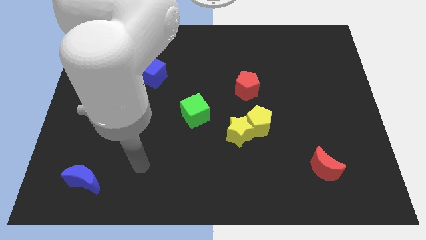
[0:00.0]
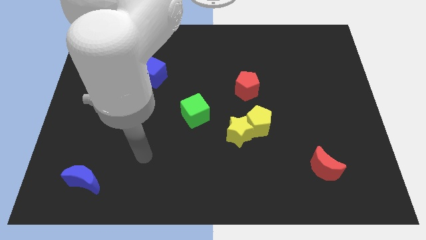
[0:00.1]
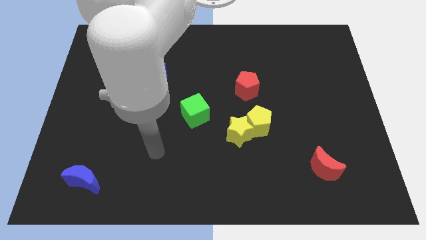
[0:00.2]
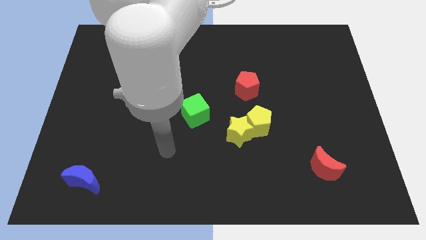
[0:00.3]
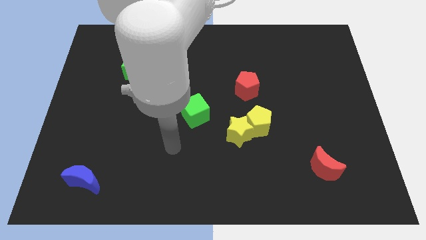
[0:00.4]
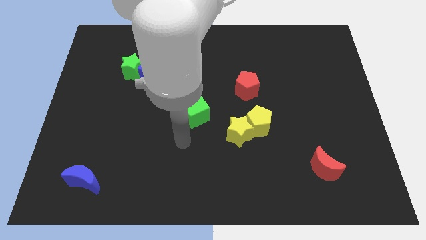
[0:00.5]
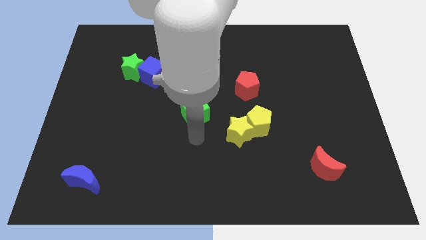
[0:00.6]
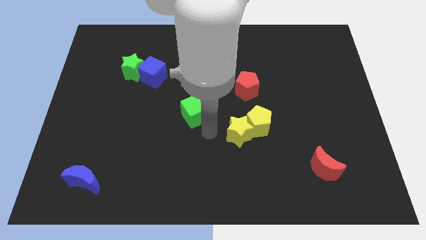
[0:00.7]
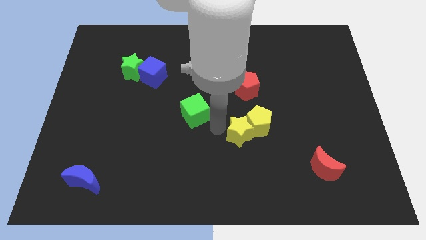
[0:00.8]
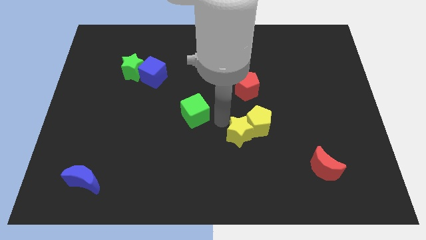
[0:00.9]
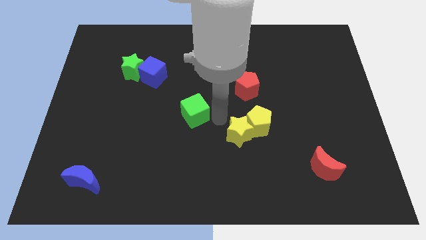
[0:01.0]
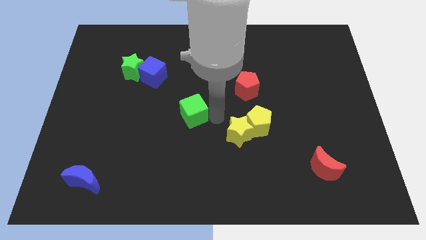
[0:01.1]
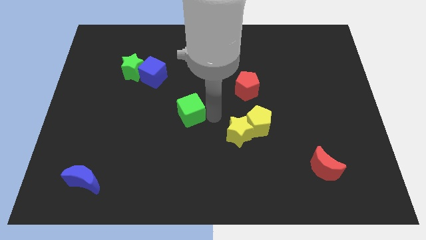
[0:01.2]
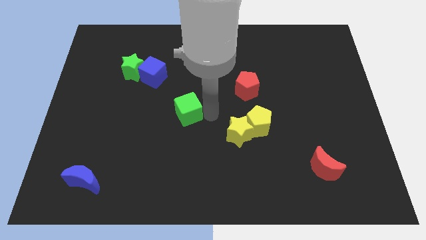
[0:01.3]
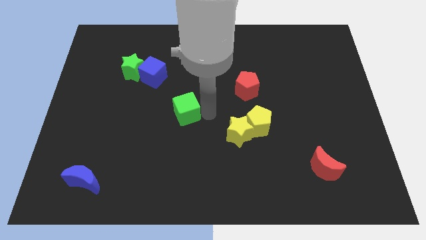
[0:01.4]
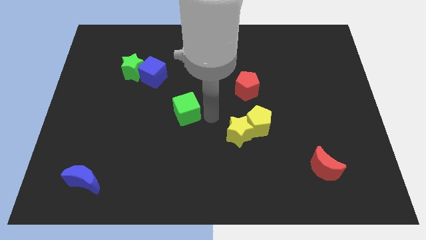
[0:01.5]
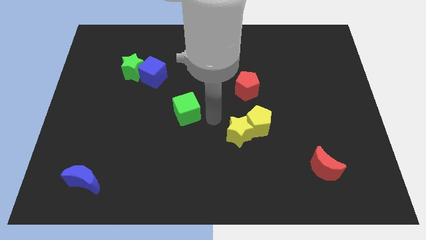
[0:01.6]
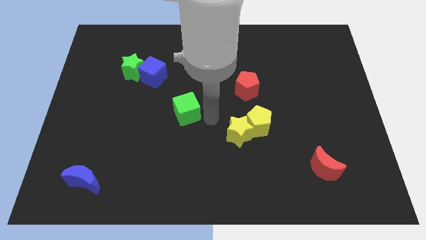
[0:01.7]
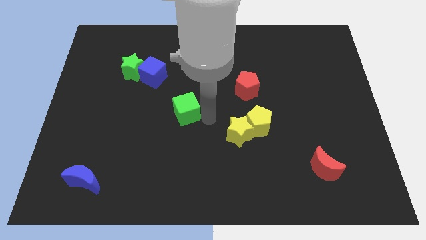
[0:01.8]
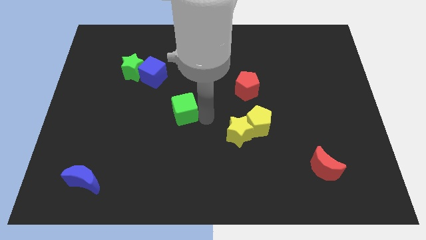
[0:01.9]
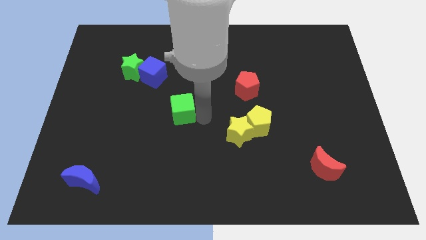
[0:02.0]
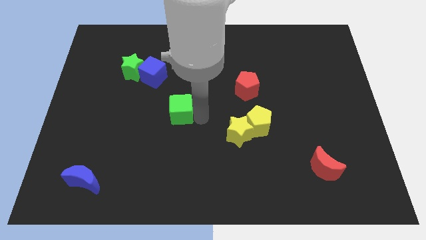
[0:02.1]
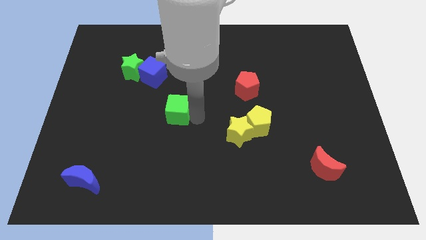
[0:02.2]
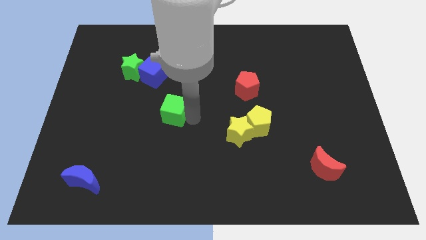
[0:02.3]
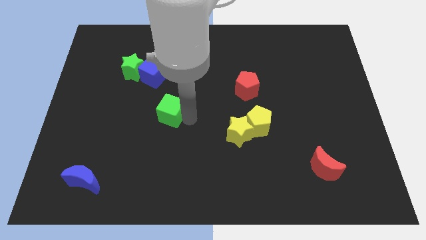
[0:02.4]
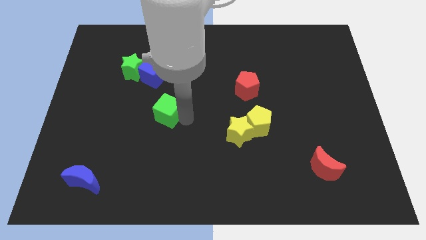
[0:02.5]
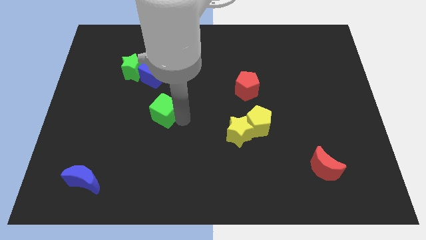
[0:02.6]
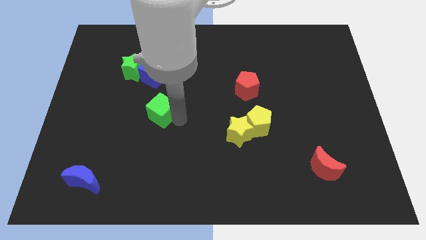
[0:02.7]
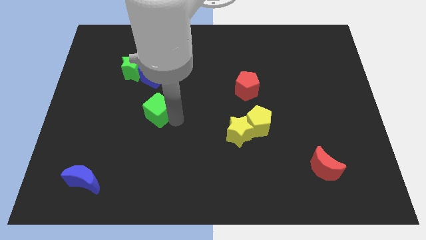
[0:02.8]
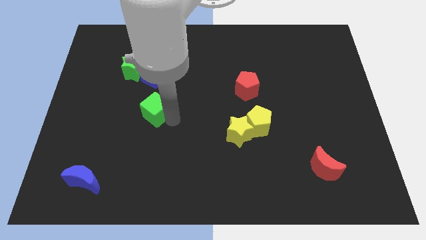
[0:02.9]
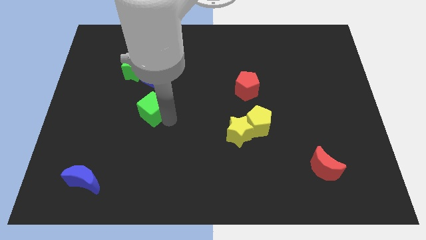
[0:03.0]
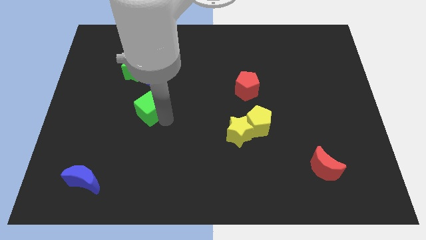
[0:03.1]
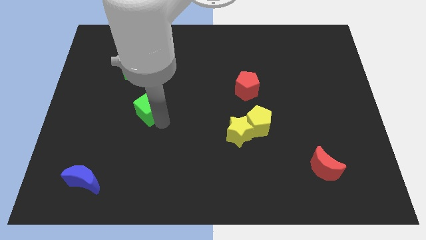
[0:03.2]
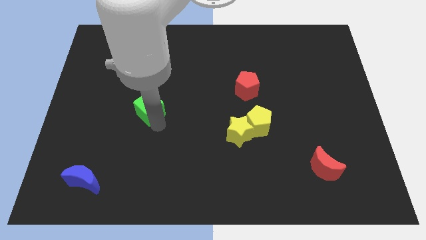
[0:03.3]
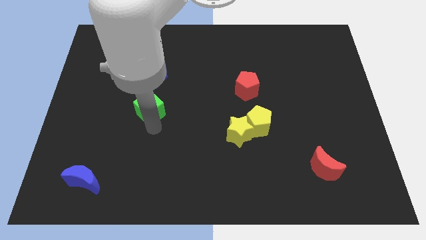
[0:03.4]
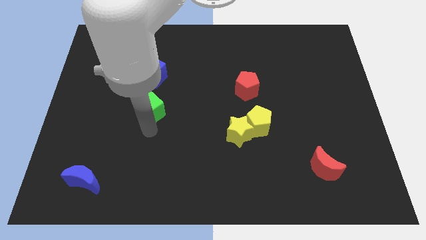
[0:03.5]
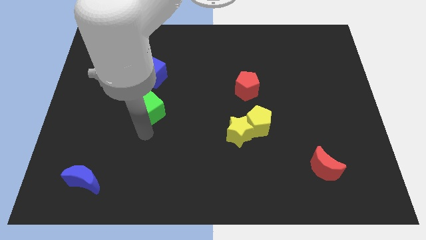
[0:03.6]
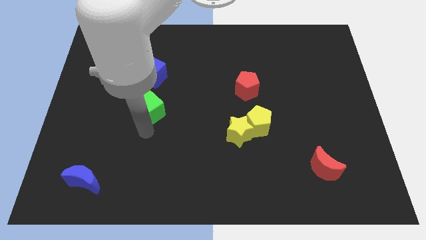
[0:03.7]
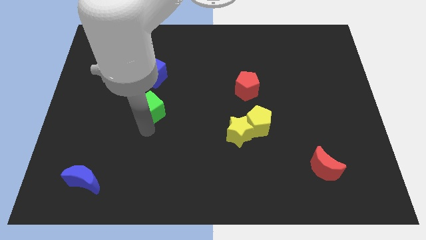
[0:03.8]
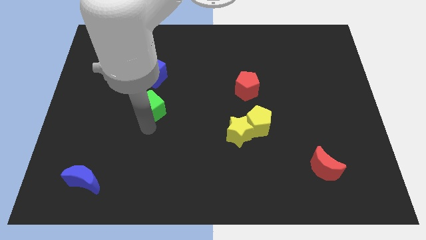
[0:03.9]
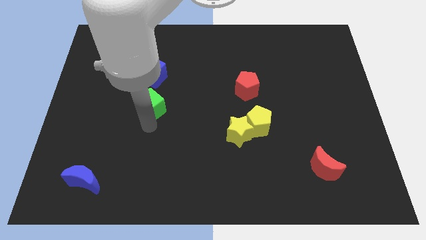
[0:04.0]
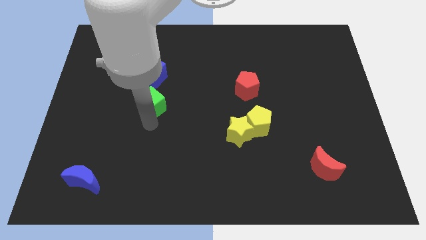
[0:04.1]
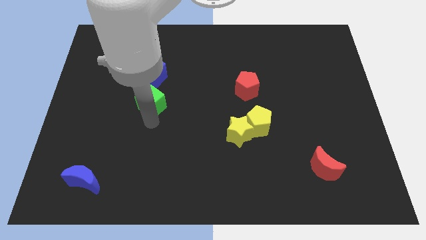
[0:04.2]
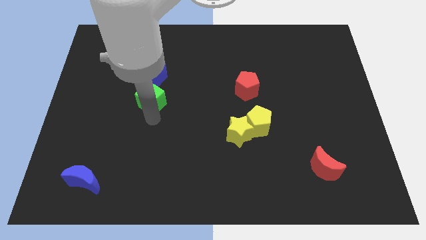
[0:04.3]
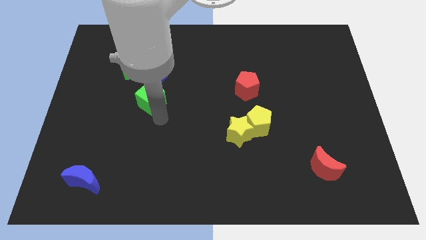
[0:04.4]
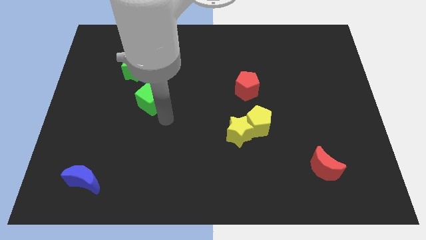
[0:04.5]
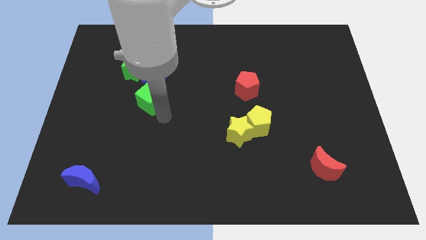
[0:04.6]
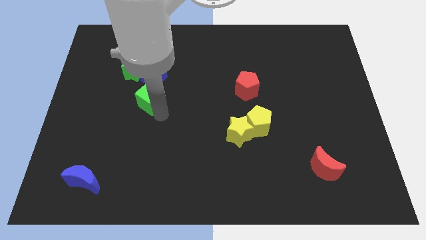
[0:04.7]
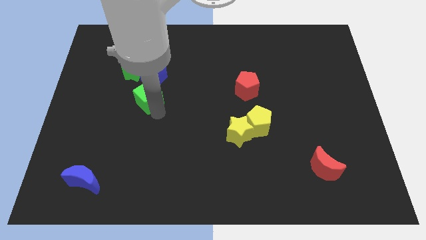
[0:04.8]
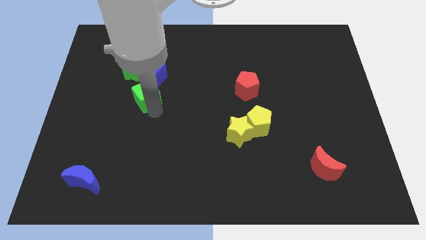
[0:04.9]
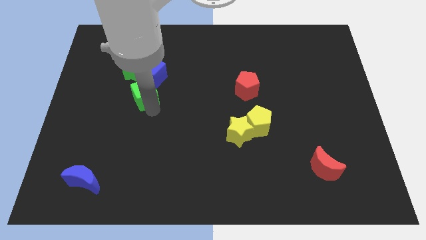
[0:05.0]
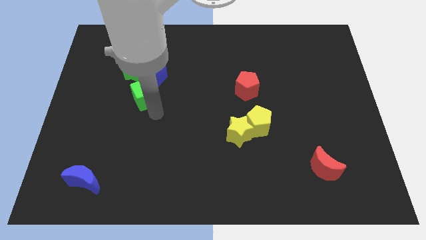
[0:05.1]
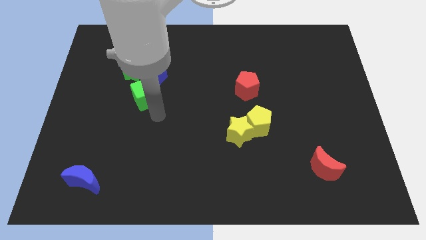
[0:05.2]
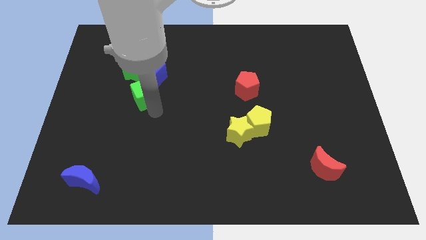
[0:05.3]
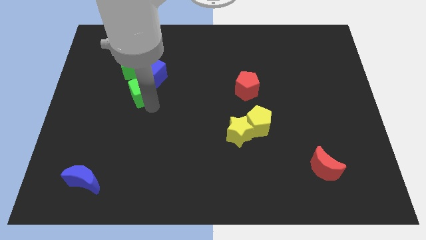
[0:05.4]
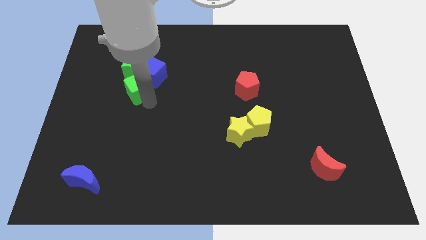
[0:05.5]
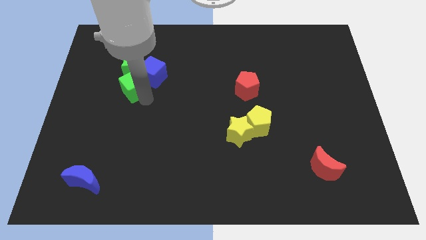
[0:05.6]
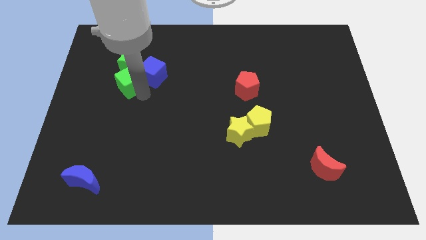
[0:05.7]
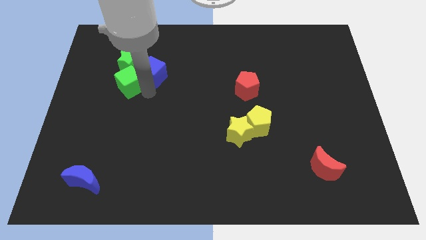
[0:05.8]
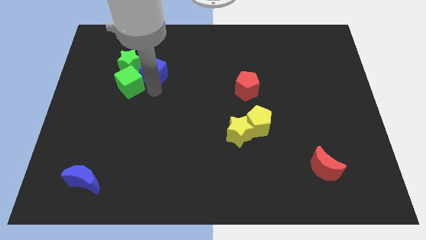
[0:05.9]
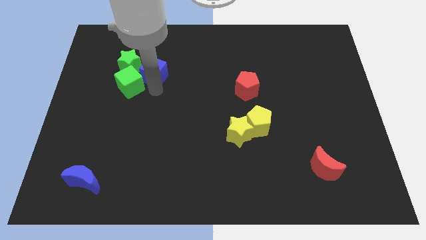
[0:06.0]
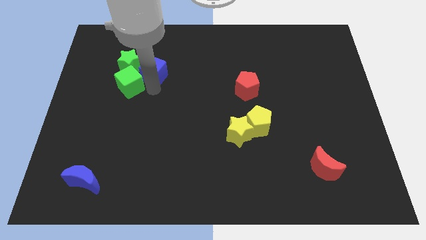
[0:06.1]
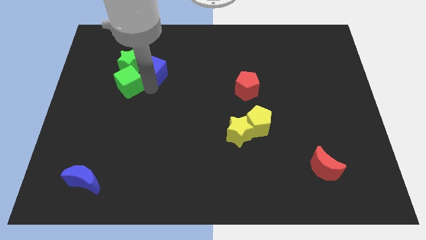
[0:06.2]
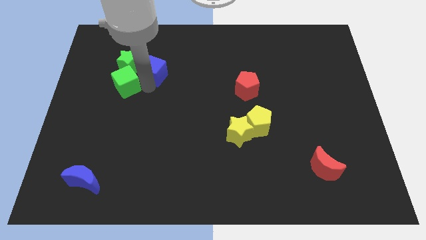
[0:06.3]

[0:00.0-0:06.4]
move the green cube to the bottom left of the green star
